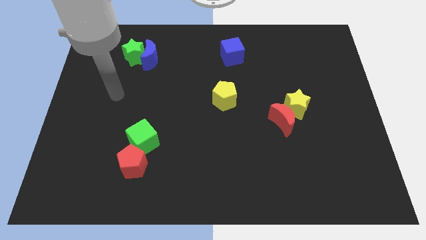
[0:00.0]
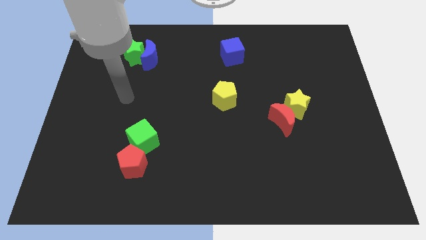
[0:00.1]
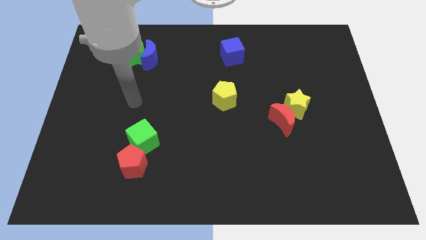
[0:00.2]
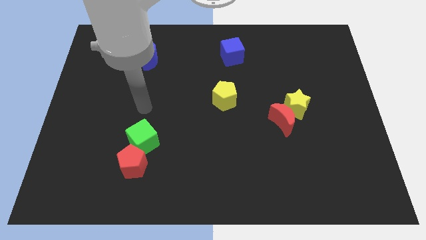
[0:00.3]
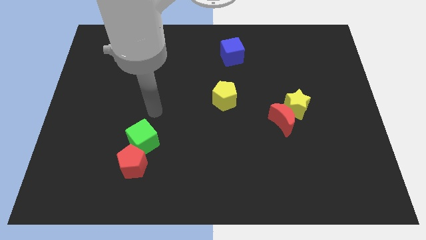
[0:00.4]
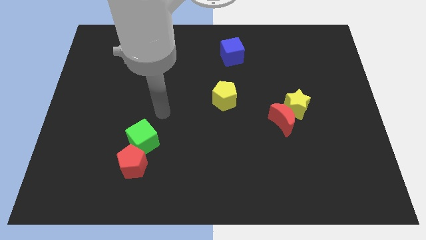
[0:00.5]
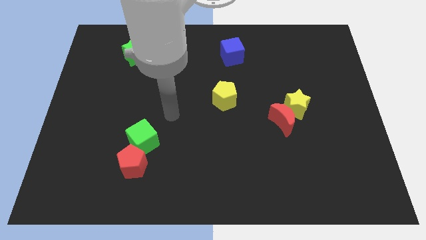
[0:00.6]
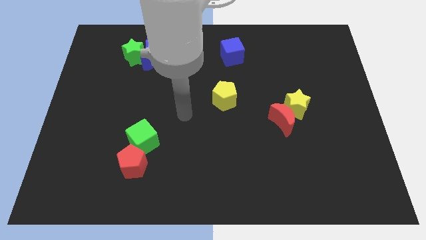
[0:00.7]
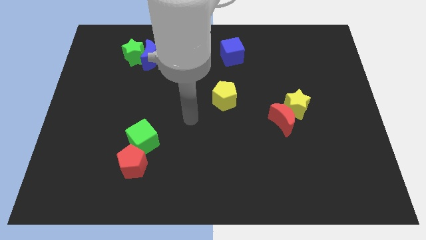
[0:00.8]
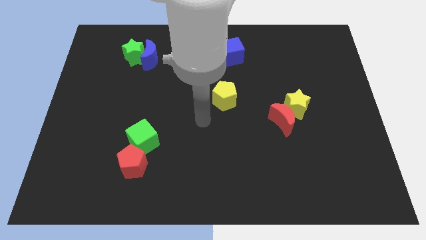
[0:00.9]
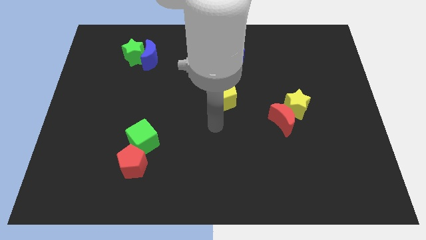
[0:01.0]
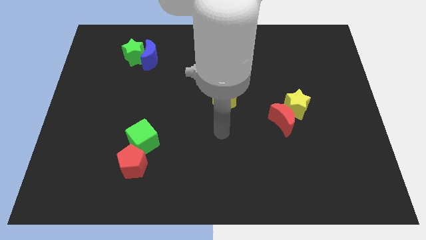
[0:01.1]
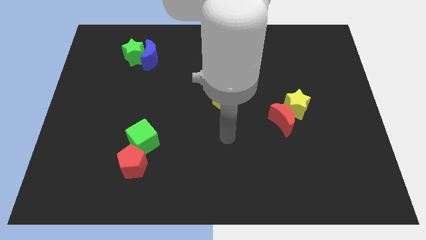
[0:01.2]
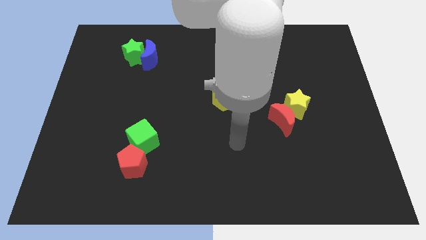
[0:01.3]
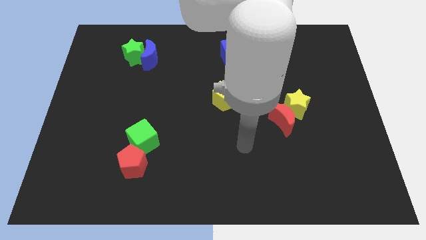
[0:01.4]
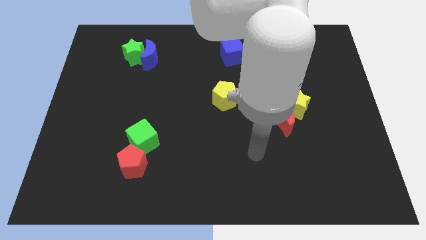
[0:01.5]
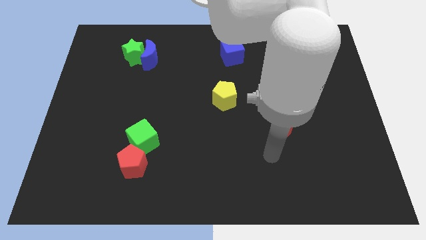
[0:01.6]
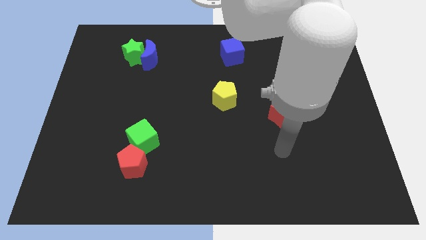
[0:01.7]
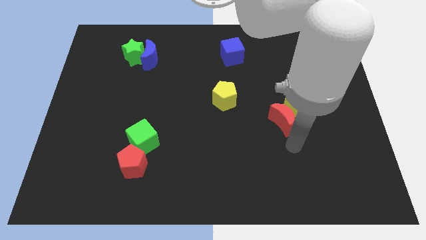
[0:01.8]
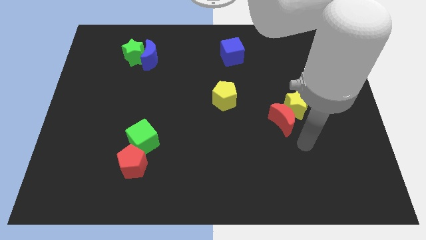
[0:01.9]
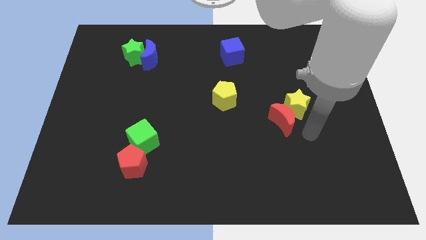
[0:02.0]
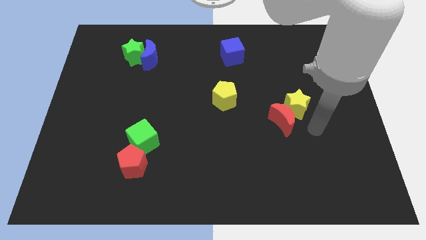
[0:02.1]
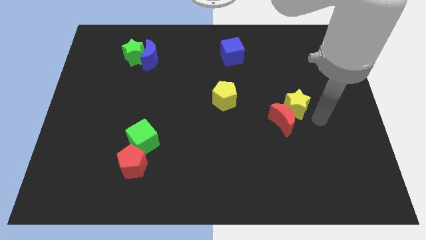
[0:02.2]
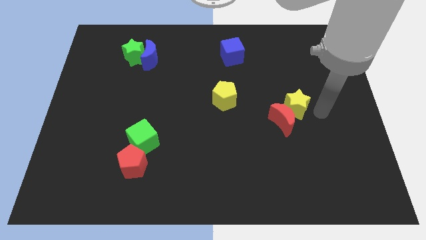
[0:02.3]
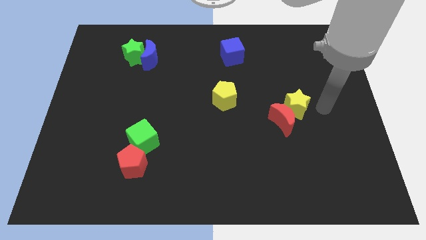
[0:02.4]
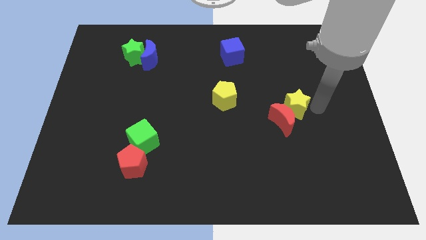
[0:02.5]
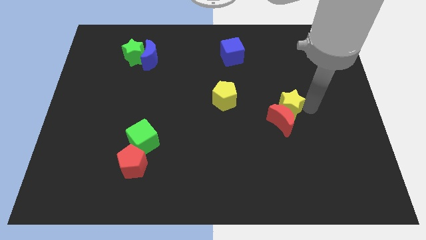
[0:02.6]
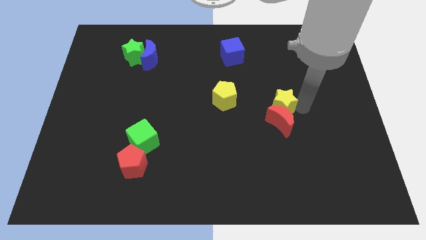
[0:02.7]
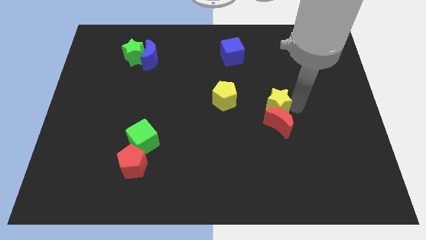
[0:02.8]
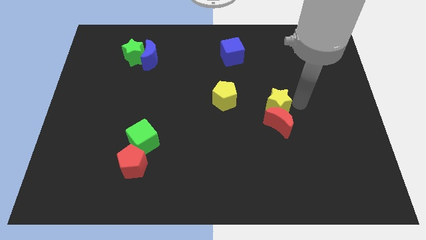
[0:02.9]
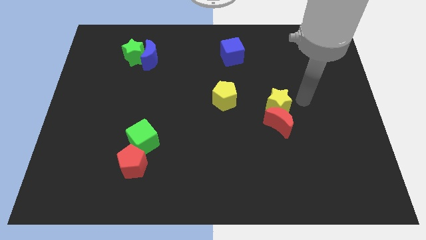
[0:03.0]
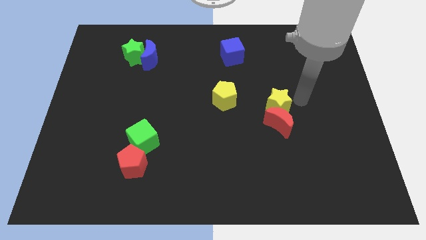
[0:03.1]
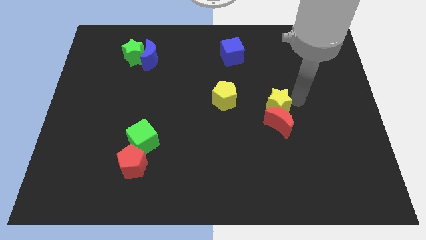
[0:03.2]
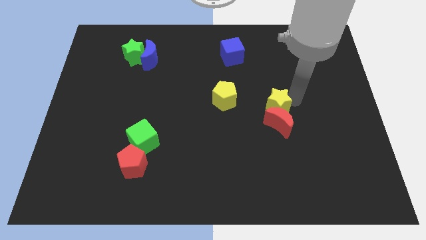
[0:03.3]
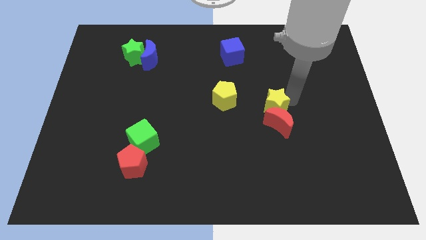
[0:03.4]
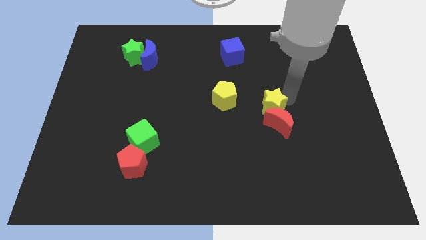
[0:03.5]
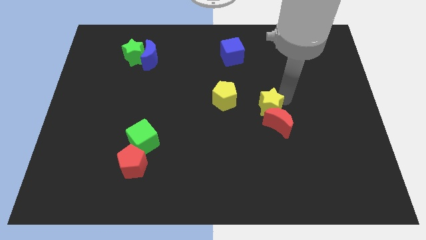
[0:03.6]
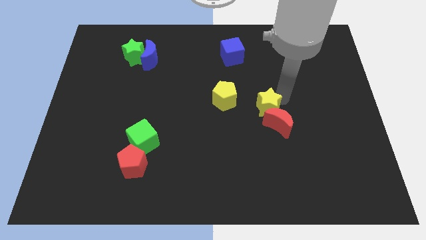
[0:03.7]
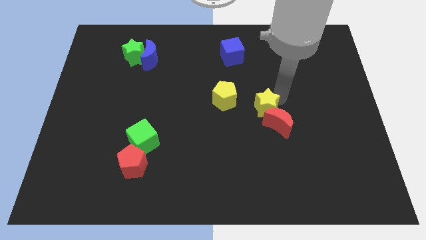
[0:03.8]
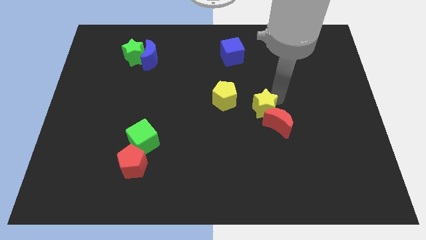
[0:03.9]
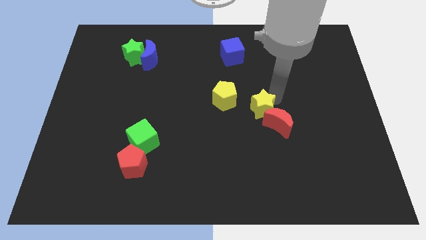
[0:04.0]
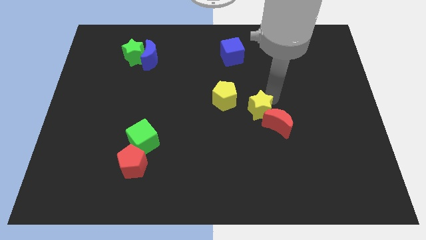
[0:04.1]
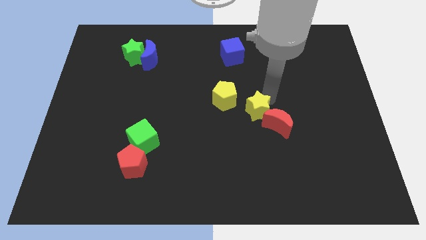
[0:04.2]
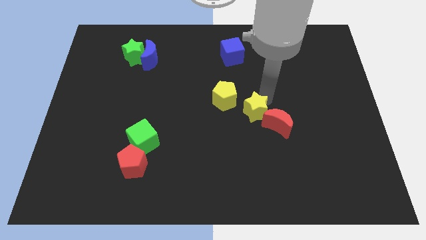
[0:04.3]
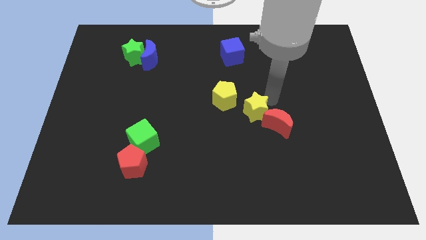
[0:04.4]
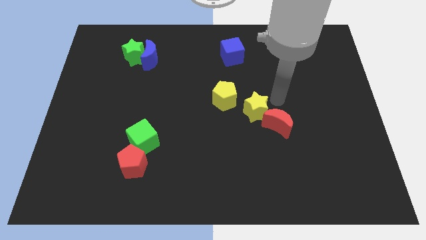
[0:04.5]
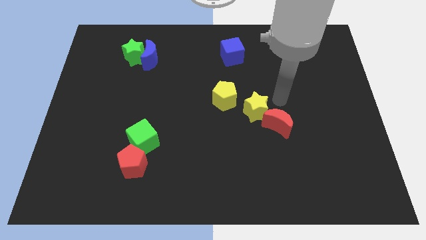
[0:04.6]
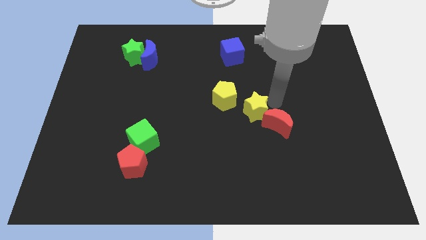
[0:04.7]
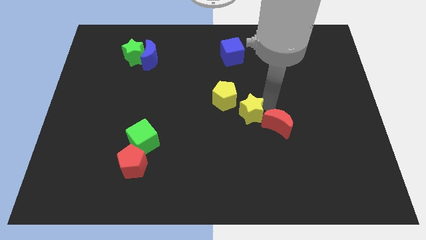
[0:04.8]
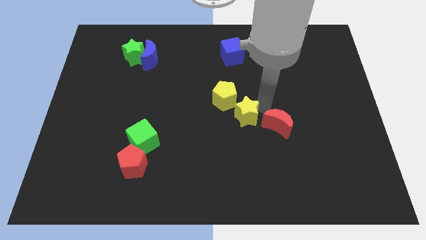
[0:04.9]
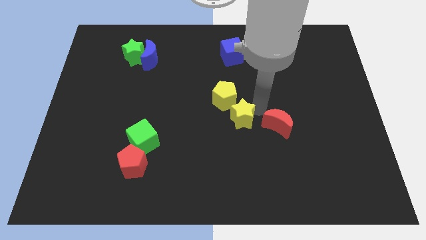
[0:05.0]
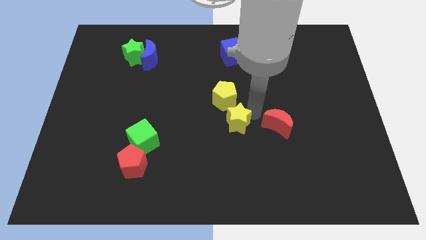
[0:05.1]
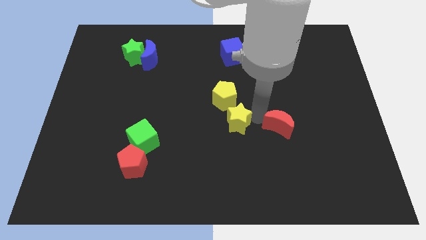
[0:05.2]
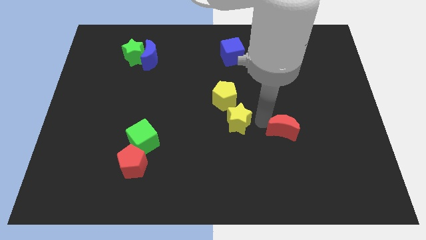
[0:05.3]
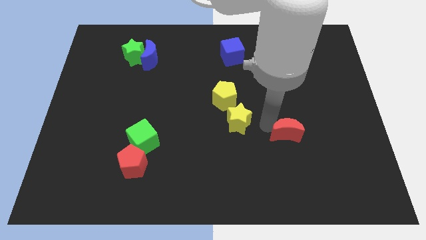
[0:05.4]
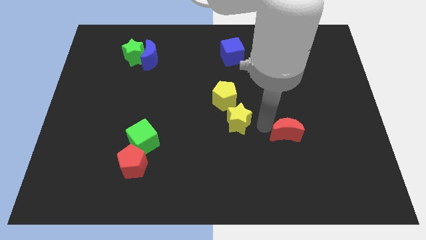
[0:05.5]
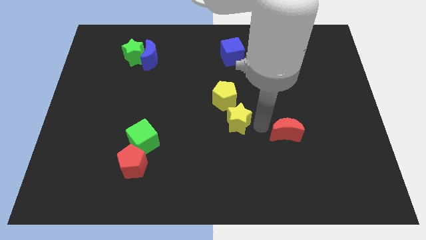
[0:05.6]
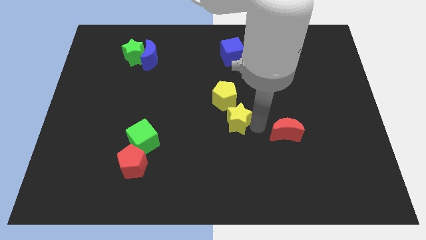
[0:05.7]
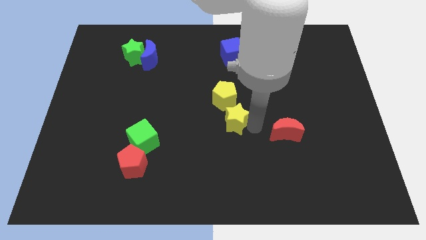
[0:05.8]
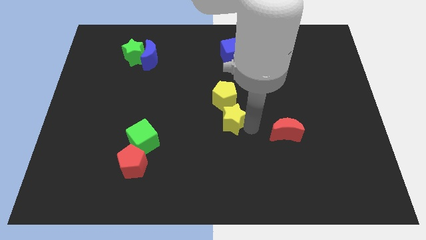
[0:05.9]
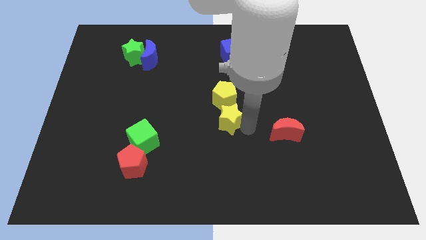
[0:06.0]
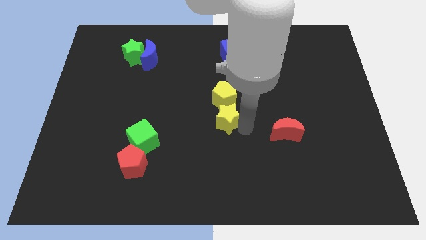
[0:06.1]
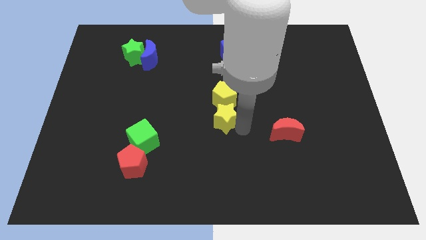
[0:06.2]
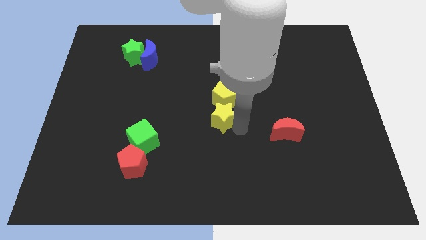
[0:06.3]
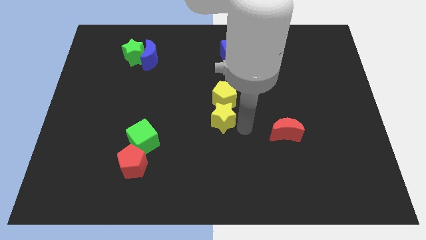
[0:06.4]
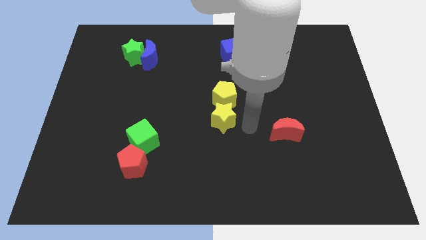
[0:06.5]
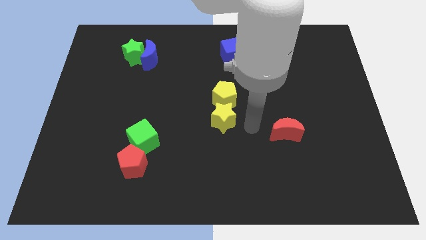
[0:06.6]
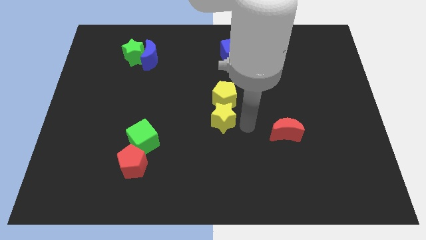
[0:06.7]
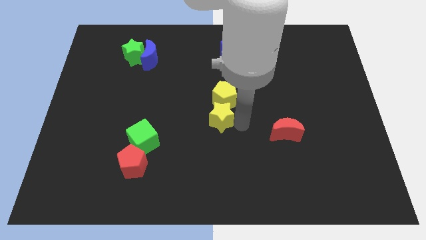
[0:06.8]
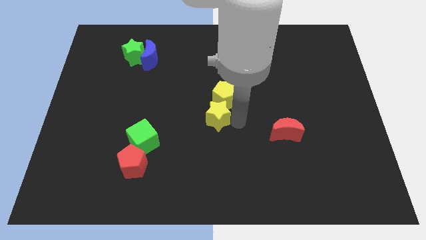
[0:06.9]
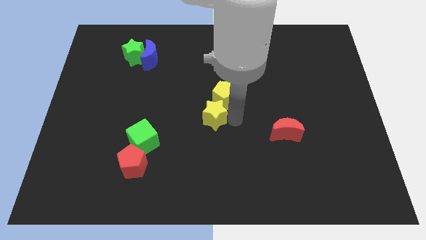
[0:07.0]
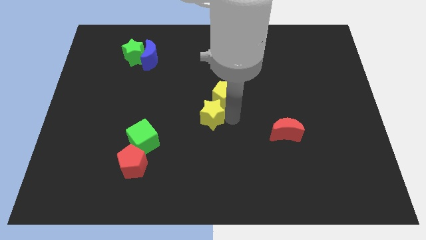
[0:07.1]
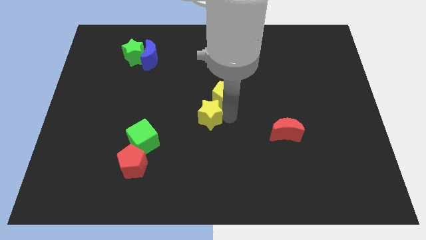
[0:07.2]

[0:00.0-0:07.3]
slide the yellow star left

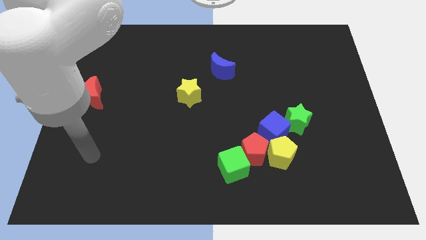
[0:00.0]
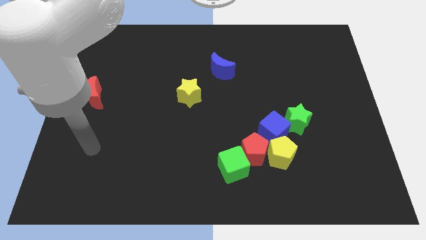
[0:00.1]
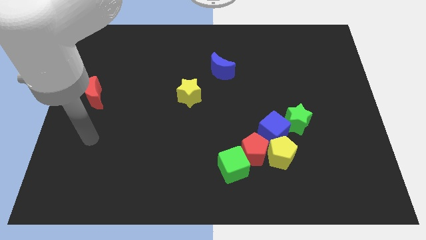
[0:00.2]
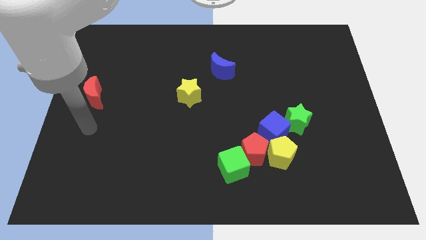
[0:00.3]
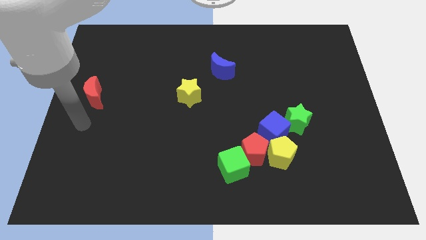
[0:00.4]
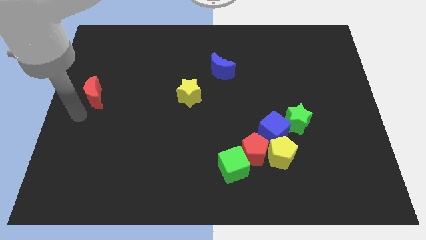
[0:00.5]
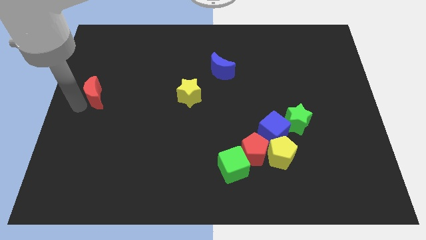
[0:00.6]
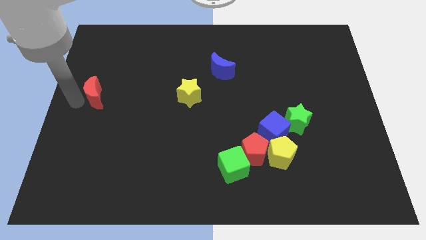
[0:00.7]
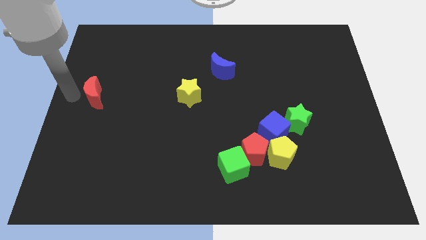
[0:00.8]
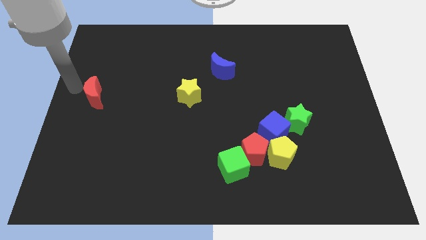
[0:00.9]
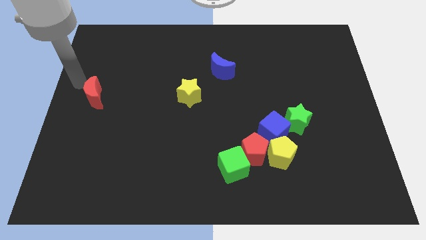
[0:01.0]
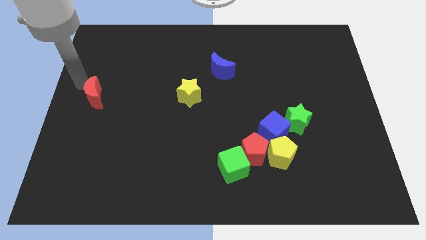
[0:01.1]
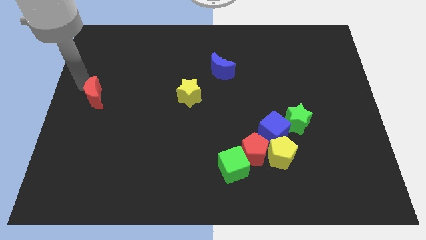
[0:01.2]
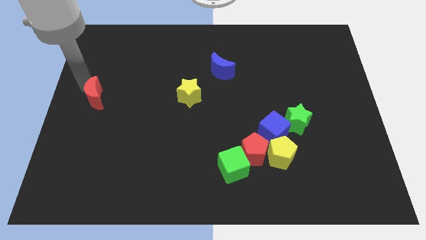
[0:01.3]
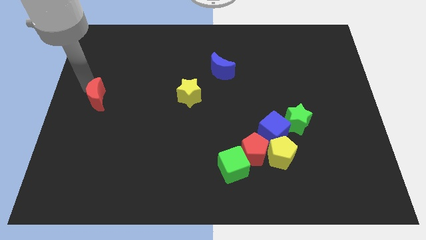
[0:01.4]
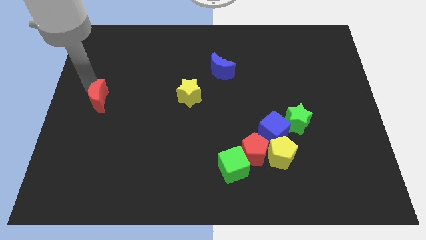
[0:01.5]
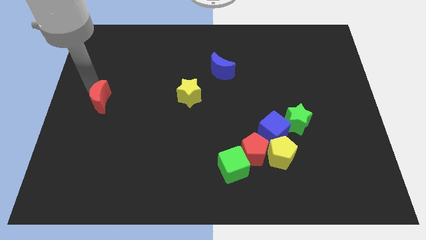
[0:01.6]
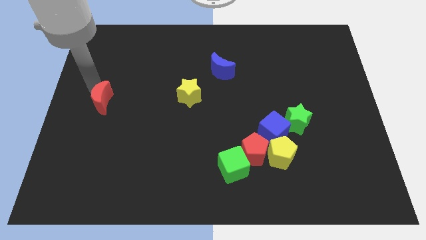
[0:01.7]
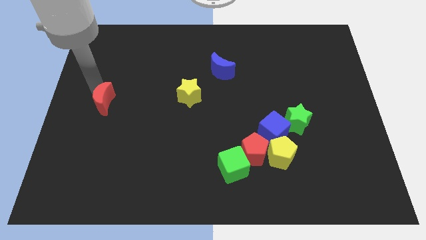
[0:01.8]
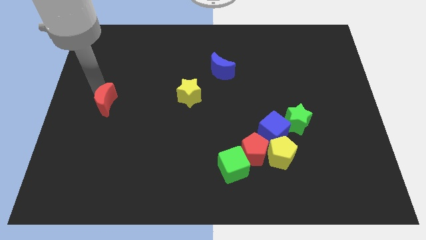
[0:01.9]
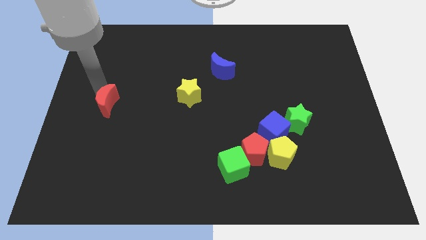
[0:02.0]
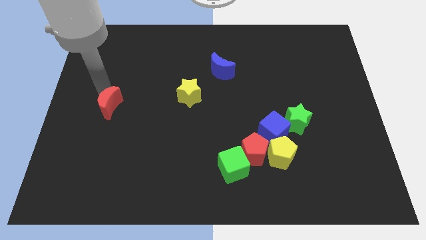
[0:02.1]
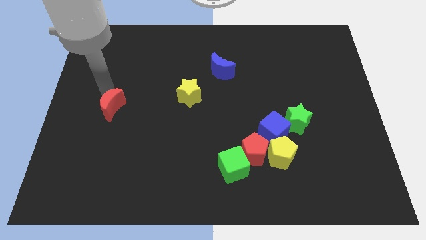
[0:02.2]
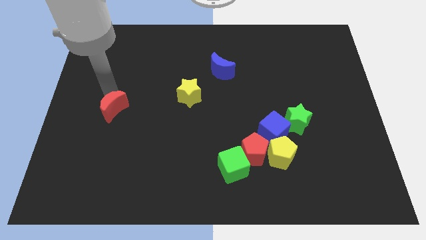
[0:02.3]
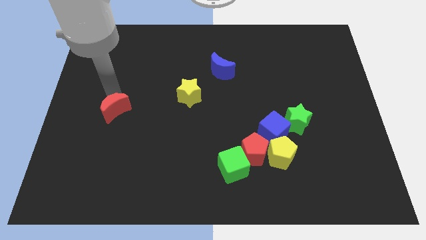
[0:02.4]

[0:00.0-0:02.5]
slightly slide the red moon down and then right
